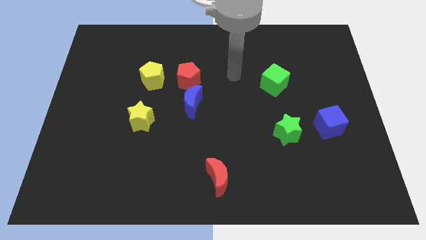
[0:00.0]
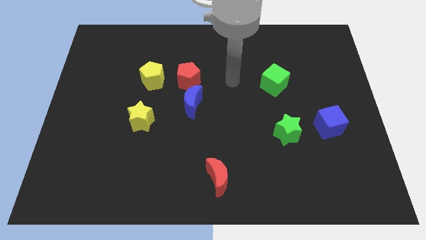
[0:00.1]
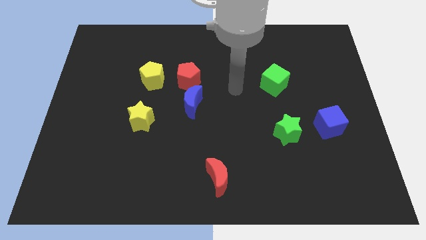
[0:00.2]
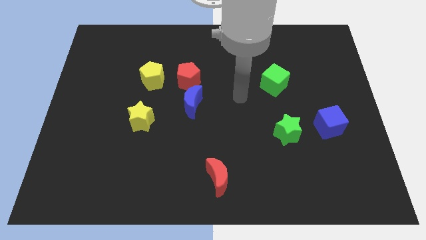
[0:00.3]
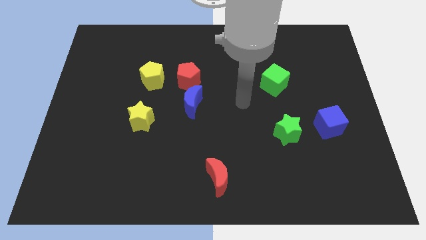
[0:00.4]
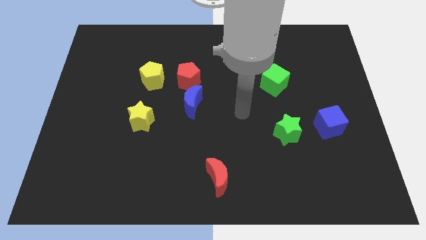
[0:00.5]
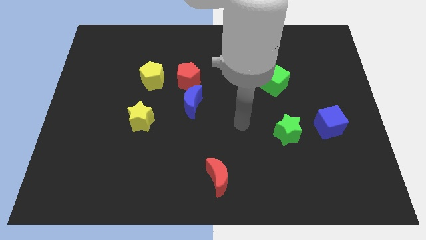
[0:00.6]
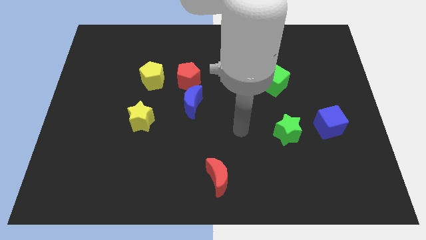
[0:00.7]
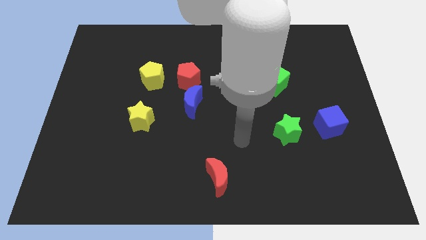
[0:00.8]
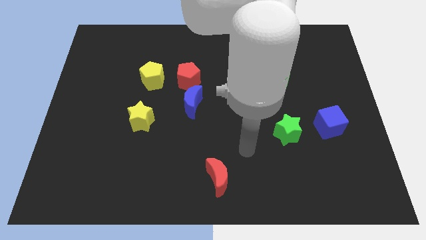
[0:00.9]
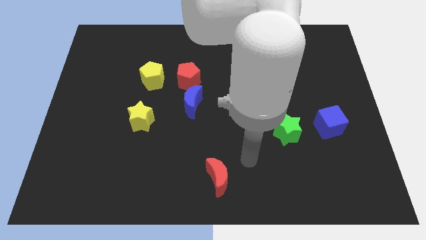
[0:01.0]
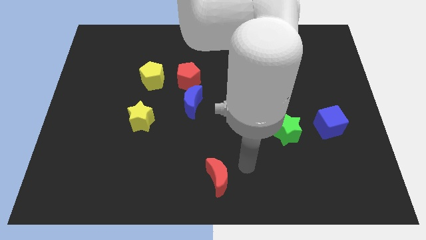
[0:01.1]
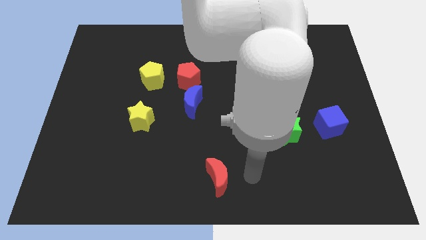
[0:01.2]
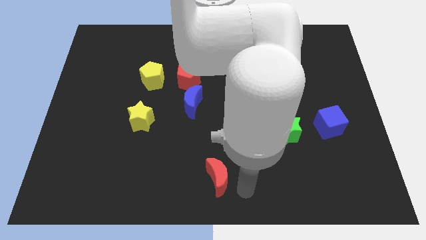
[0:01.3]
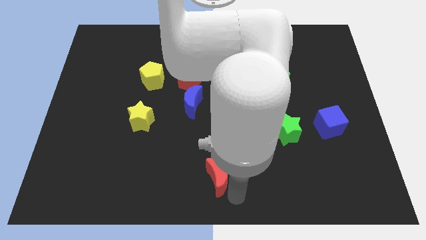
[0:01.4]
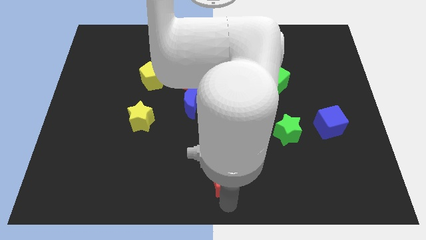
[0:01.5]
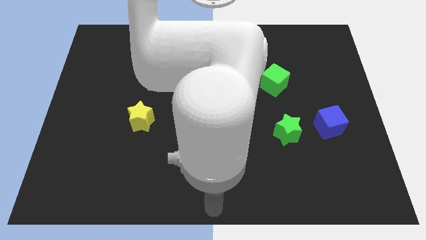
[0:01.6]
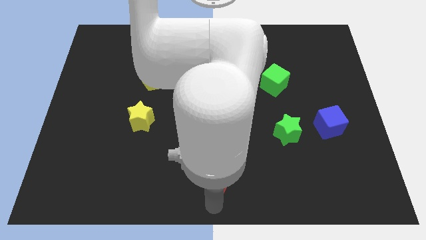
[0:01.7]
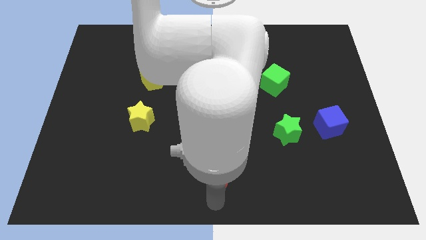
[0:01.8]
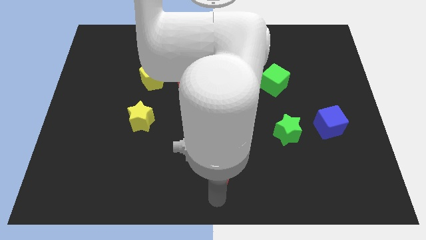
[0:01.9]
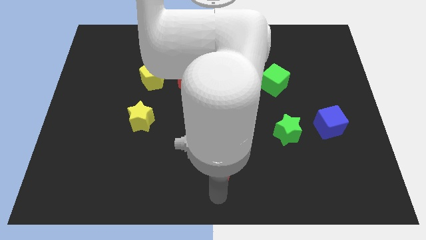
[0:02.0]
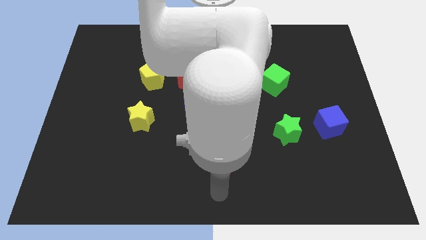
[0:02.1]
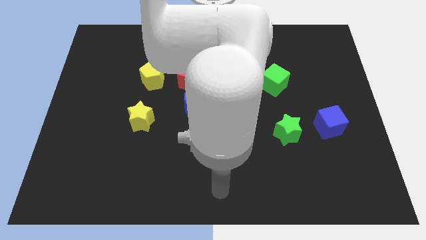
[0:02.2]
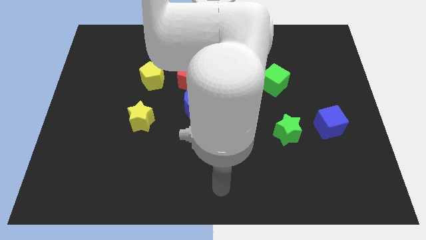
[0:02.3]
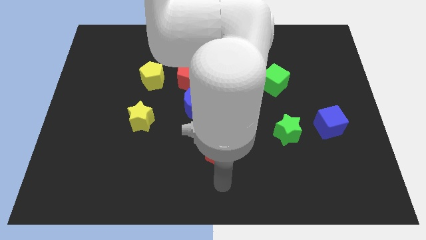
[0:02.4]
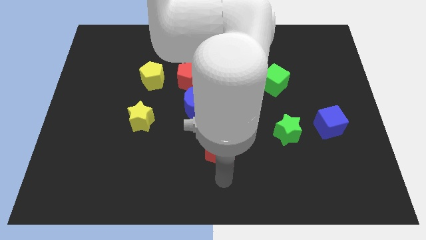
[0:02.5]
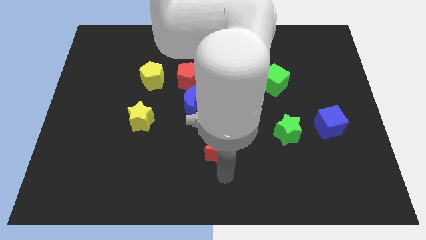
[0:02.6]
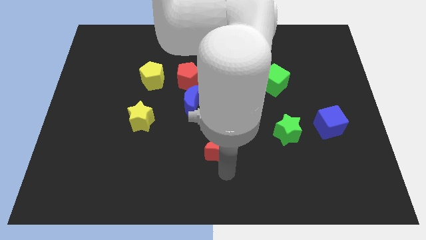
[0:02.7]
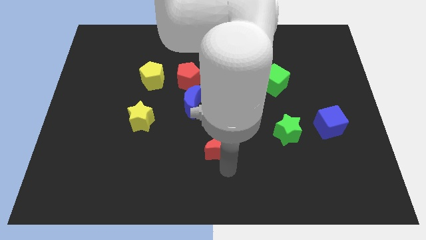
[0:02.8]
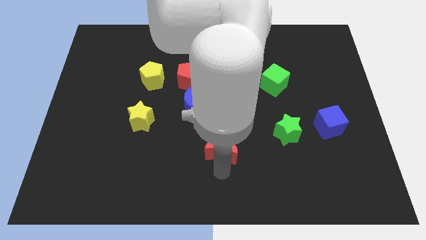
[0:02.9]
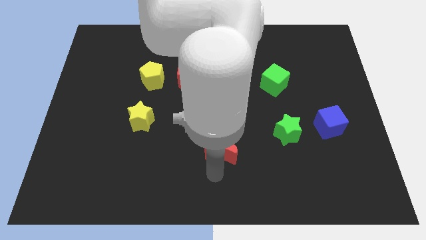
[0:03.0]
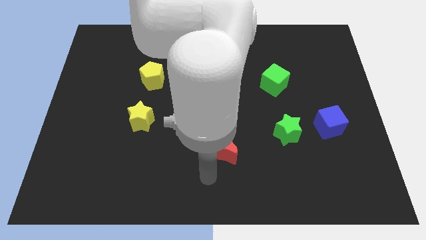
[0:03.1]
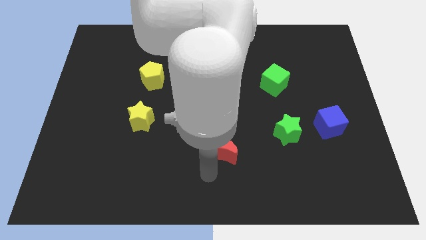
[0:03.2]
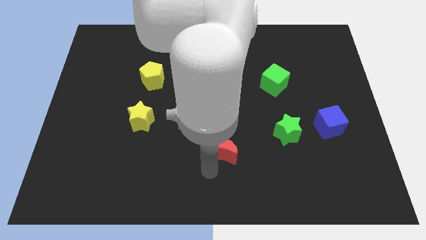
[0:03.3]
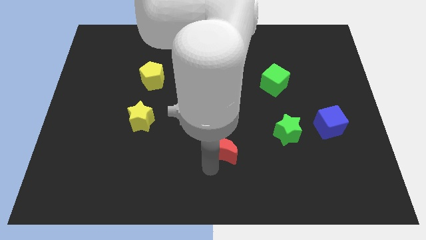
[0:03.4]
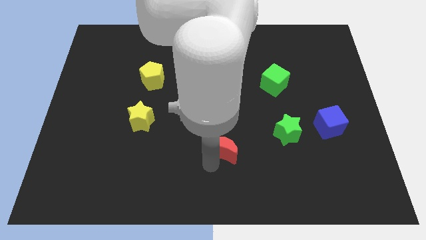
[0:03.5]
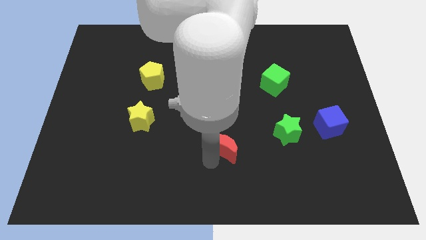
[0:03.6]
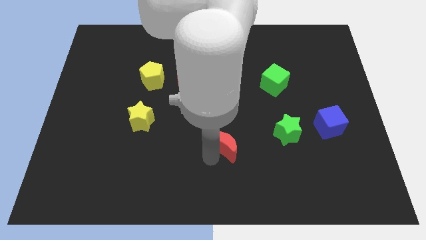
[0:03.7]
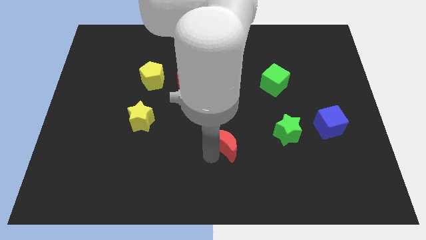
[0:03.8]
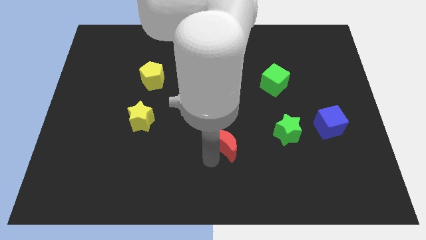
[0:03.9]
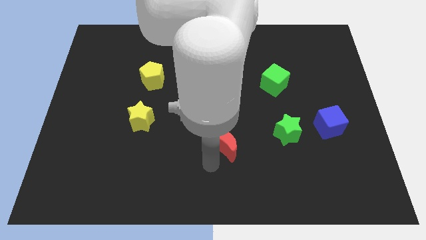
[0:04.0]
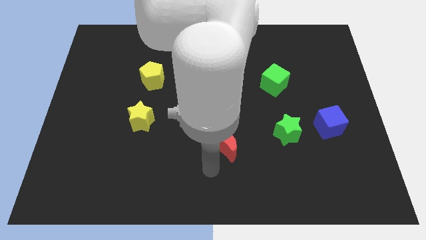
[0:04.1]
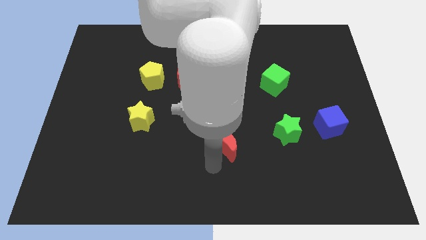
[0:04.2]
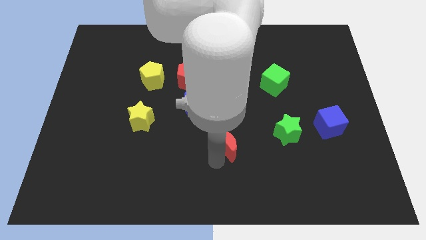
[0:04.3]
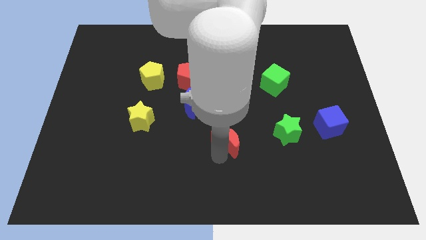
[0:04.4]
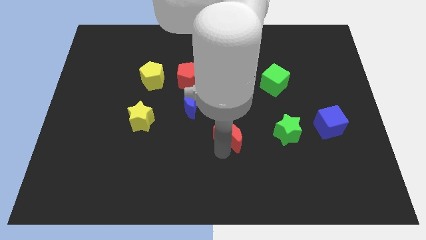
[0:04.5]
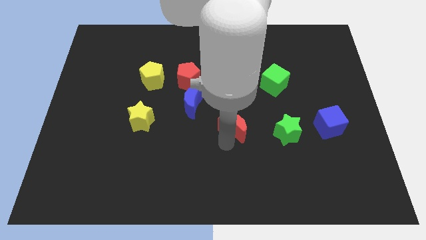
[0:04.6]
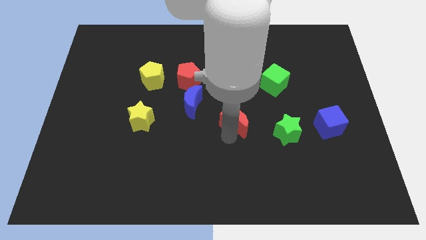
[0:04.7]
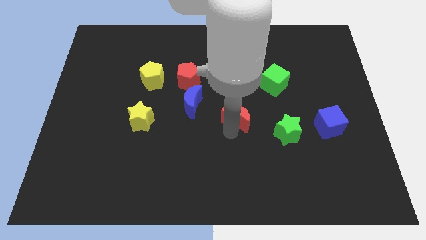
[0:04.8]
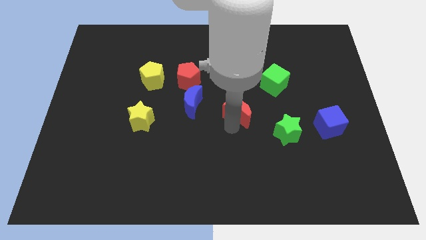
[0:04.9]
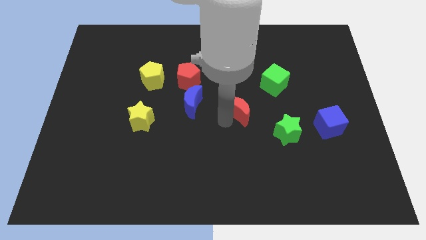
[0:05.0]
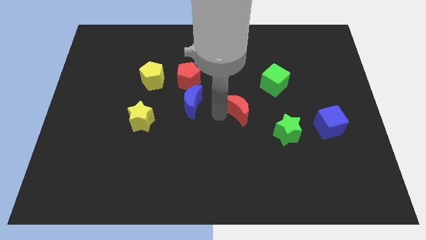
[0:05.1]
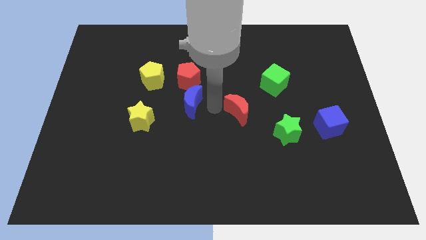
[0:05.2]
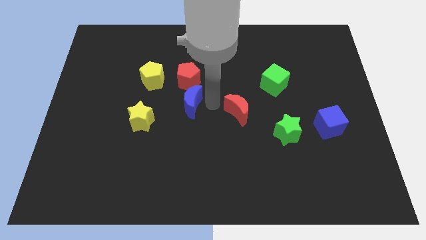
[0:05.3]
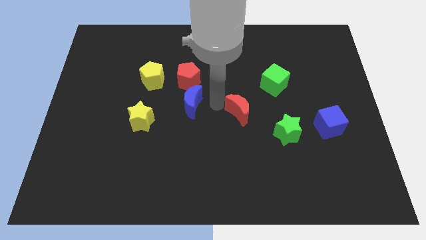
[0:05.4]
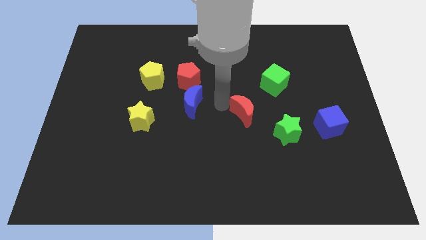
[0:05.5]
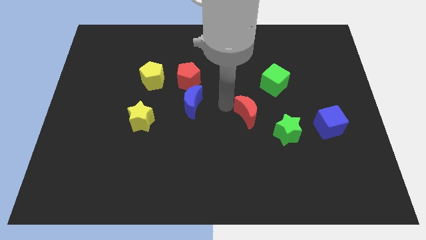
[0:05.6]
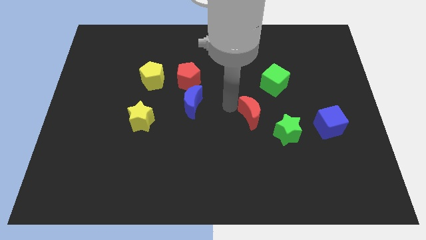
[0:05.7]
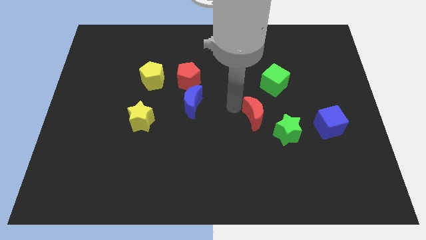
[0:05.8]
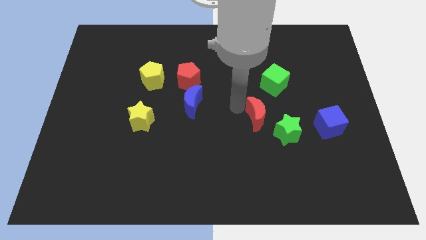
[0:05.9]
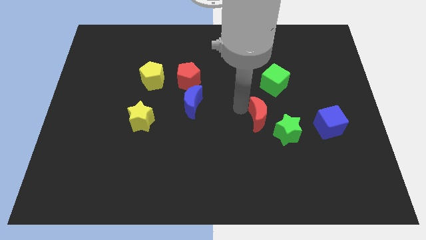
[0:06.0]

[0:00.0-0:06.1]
move the red moon left of the blue cube

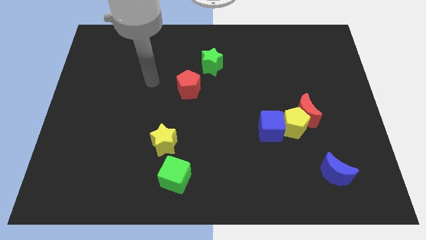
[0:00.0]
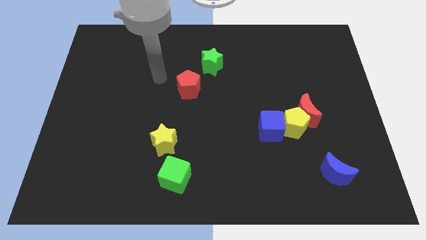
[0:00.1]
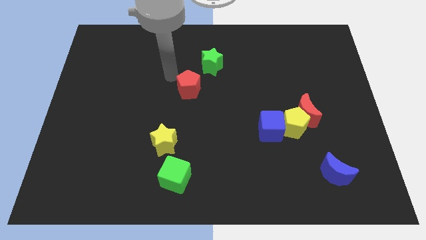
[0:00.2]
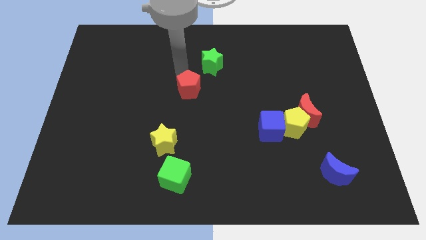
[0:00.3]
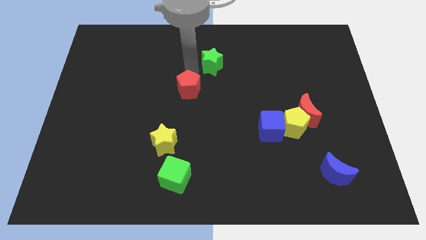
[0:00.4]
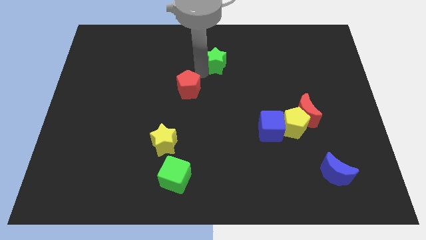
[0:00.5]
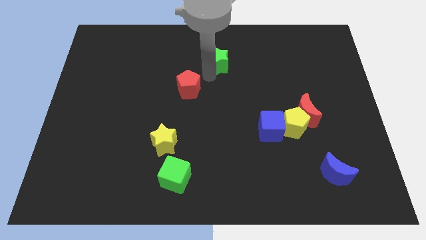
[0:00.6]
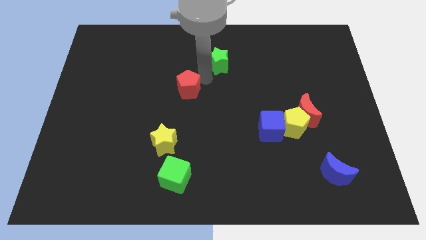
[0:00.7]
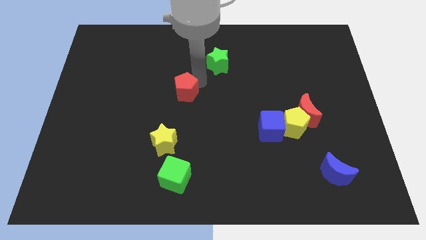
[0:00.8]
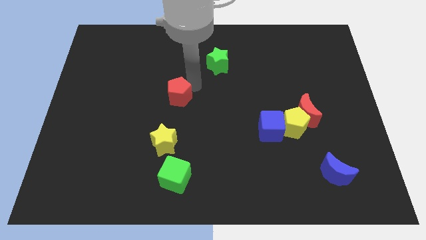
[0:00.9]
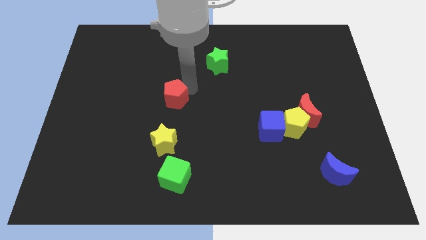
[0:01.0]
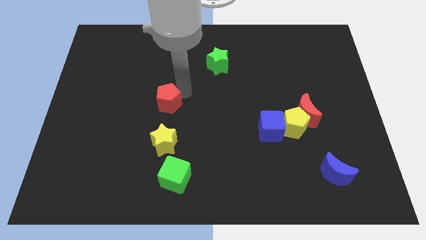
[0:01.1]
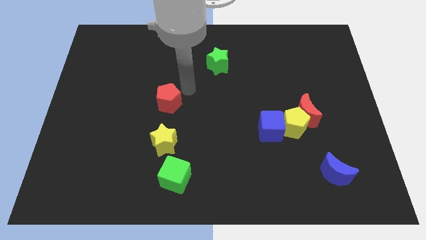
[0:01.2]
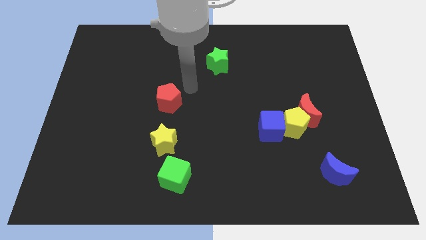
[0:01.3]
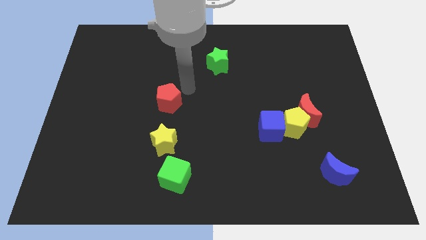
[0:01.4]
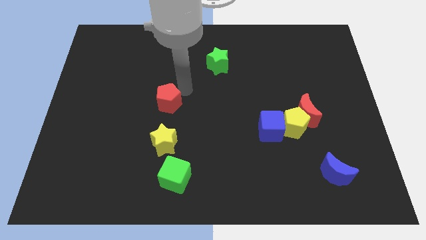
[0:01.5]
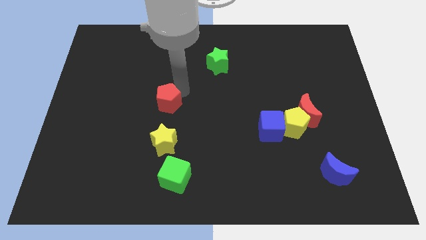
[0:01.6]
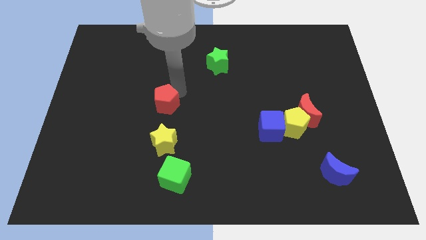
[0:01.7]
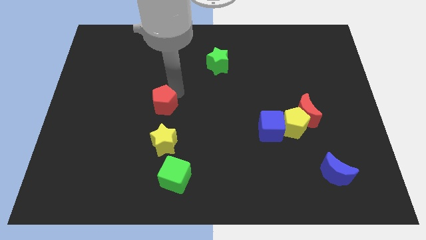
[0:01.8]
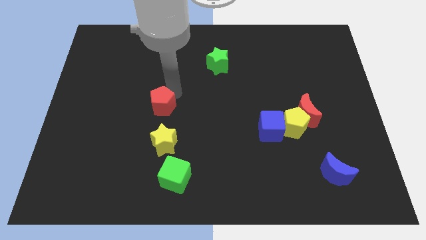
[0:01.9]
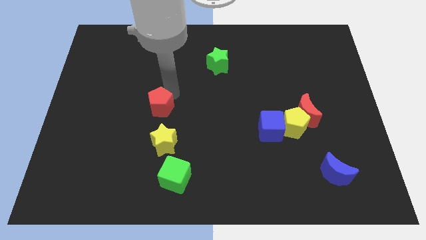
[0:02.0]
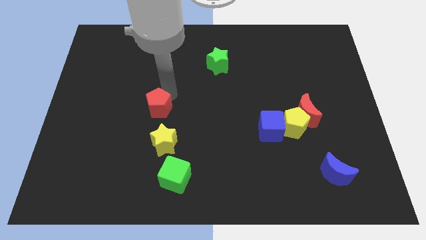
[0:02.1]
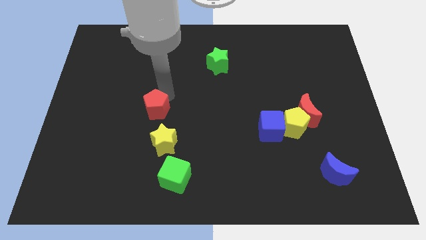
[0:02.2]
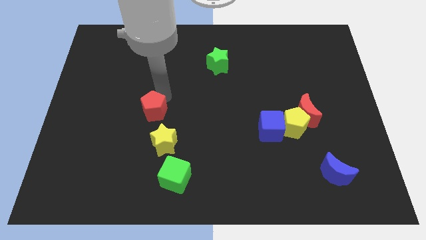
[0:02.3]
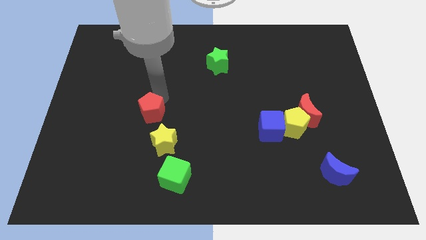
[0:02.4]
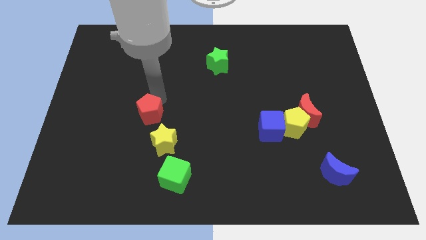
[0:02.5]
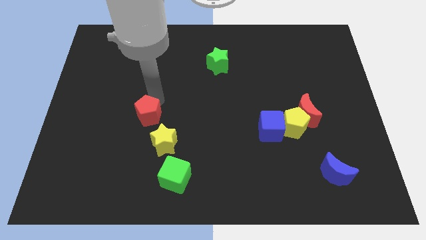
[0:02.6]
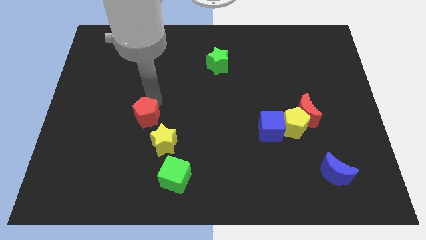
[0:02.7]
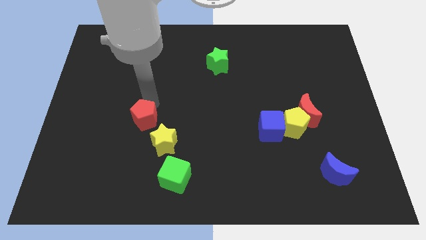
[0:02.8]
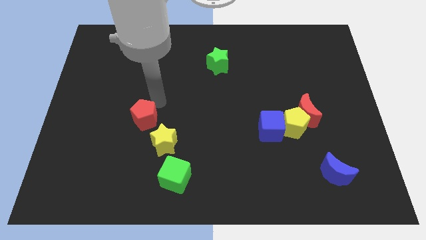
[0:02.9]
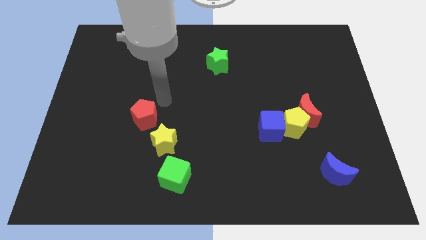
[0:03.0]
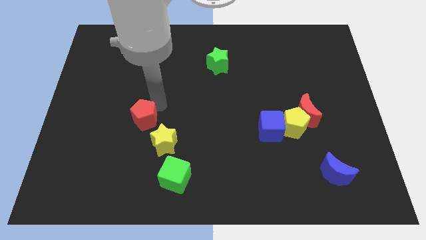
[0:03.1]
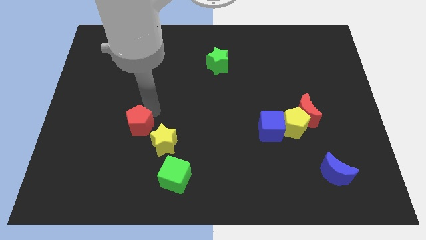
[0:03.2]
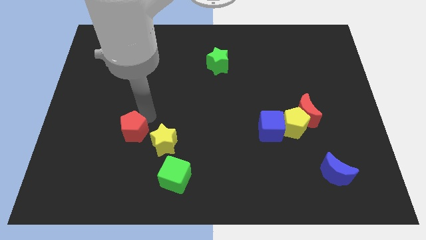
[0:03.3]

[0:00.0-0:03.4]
slide the red pentagon just left of the yellow star
